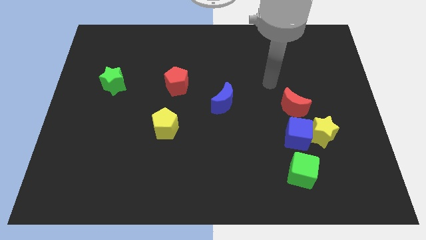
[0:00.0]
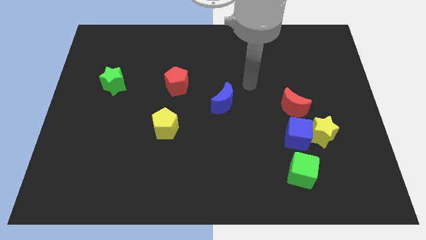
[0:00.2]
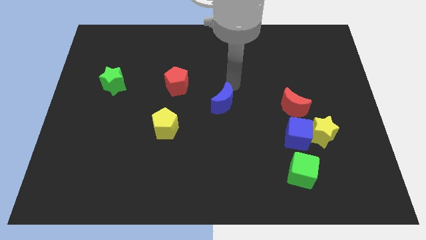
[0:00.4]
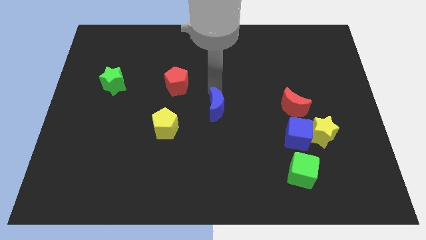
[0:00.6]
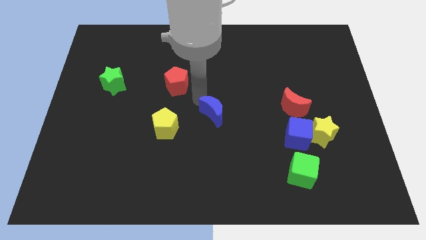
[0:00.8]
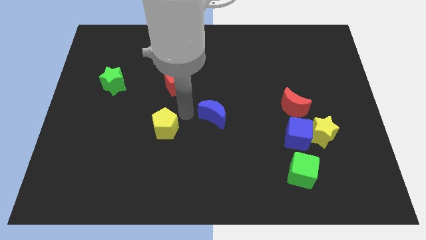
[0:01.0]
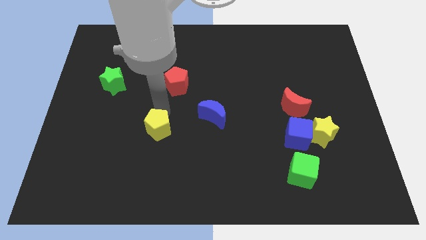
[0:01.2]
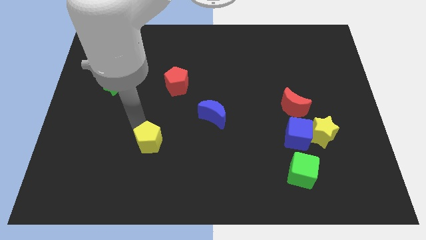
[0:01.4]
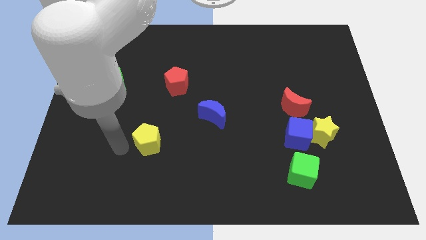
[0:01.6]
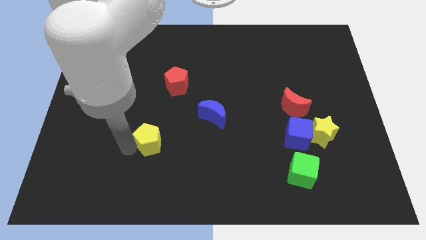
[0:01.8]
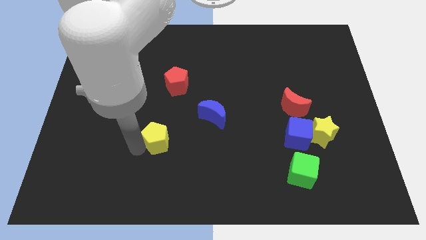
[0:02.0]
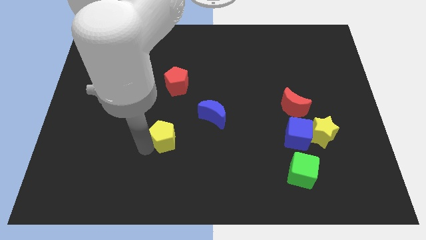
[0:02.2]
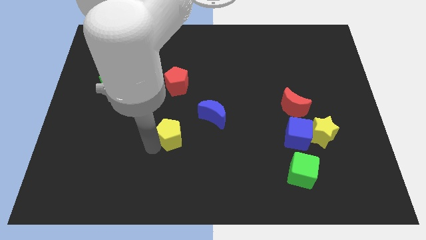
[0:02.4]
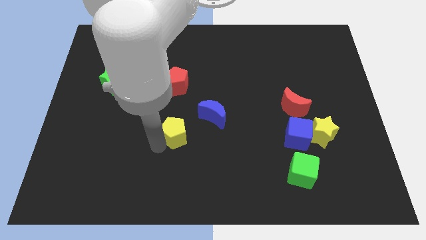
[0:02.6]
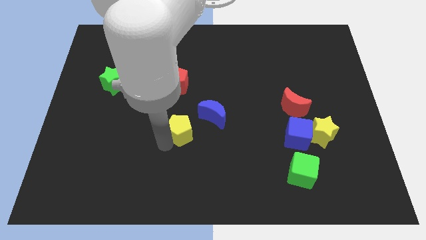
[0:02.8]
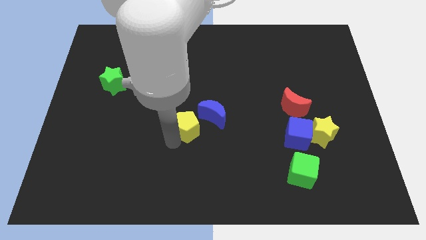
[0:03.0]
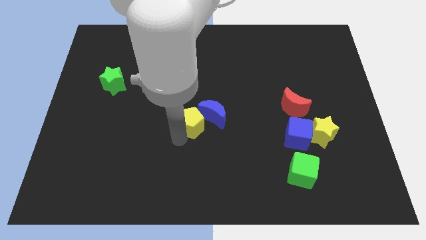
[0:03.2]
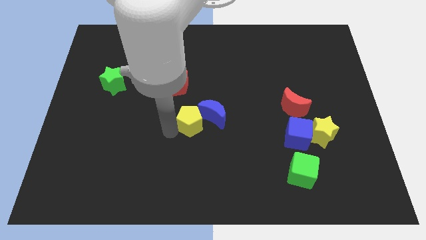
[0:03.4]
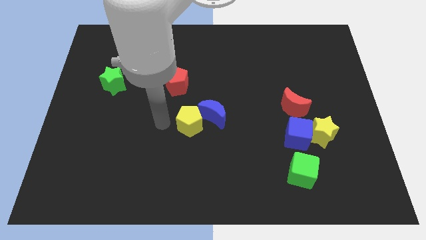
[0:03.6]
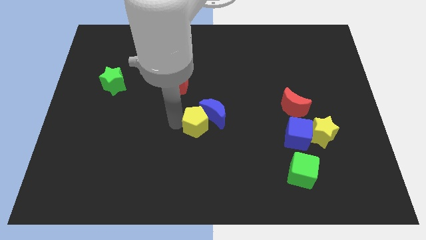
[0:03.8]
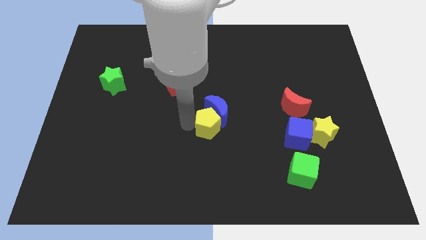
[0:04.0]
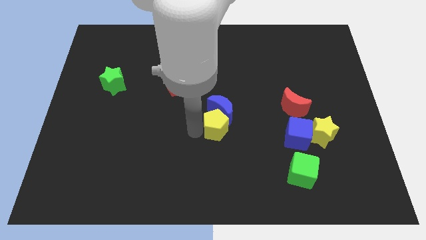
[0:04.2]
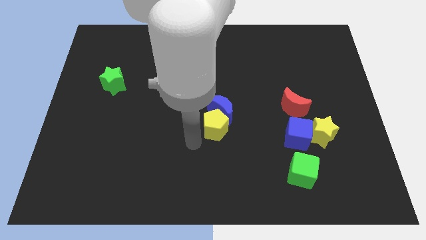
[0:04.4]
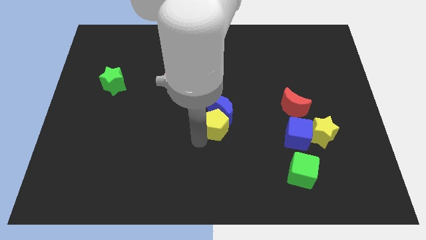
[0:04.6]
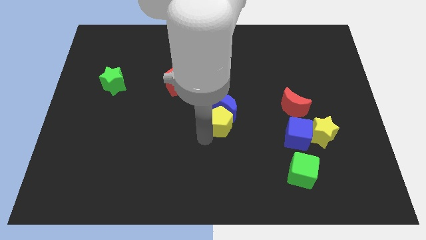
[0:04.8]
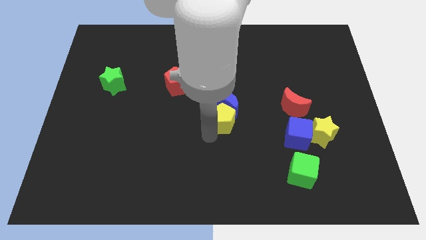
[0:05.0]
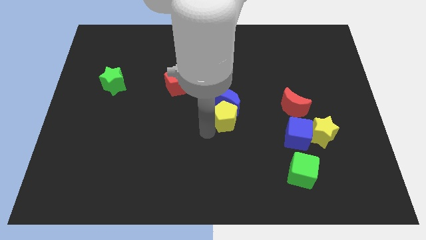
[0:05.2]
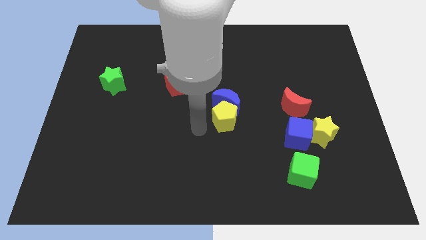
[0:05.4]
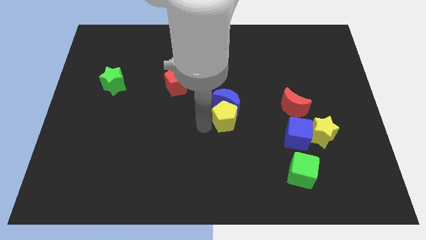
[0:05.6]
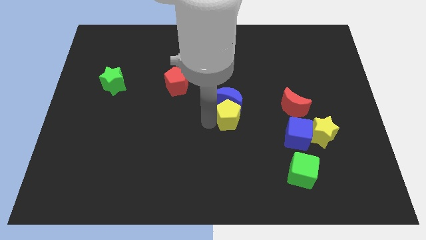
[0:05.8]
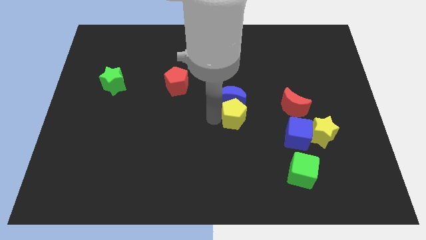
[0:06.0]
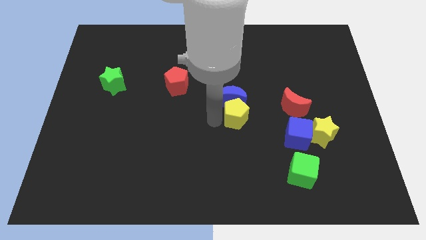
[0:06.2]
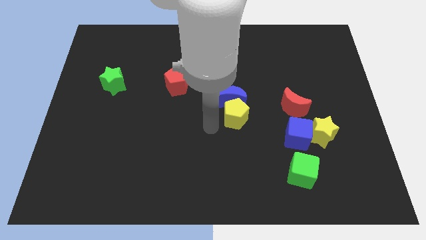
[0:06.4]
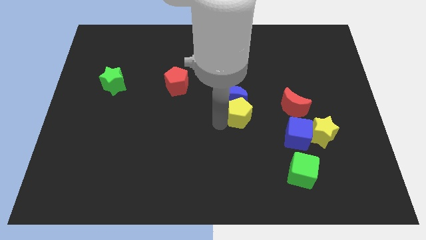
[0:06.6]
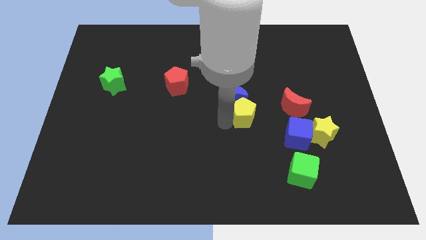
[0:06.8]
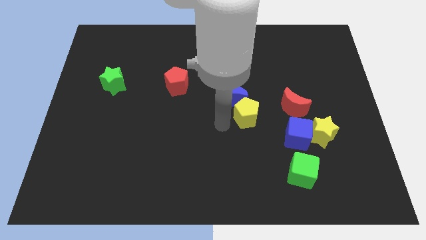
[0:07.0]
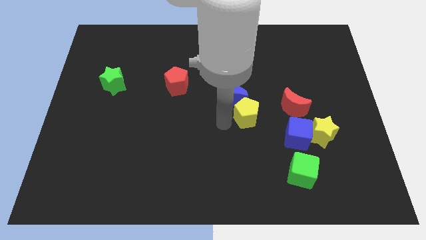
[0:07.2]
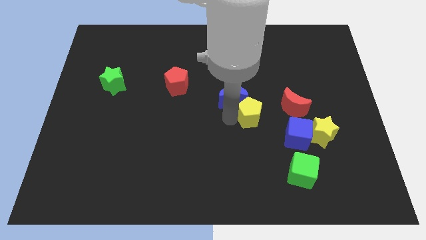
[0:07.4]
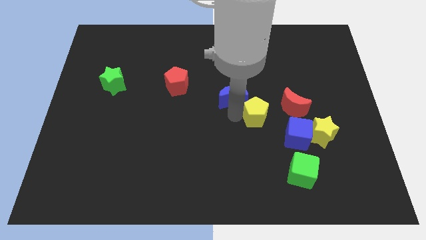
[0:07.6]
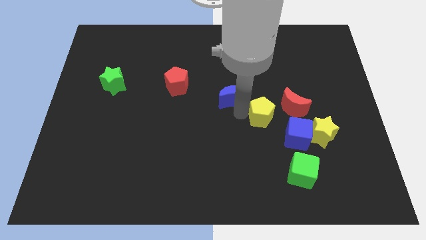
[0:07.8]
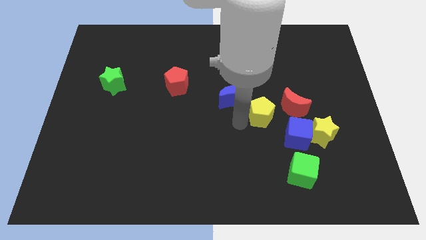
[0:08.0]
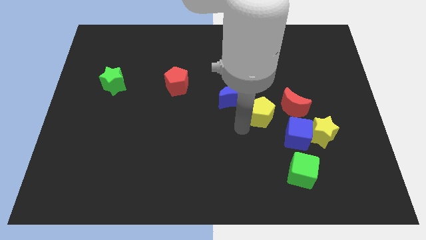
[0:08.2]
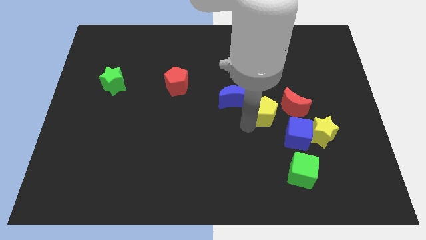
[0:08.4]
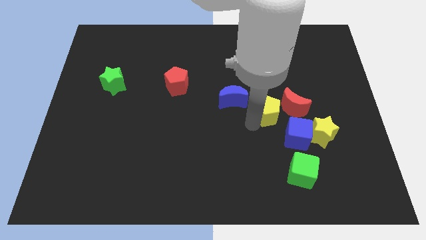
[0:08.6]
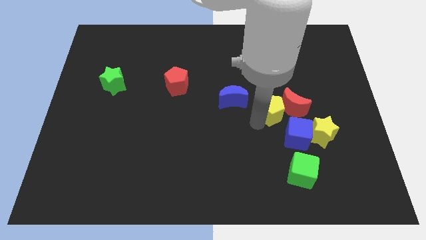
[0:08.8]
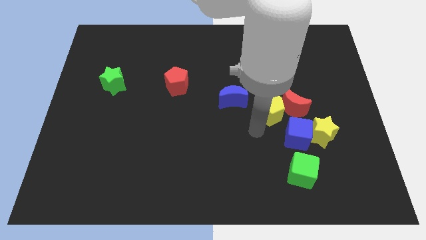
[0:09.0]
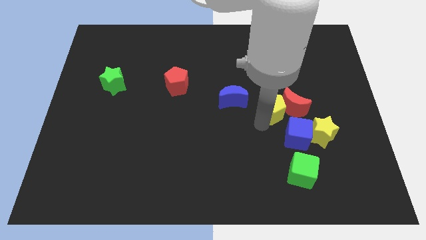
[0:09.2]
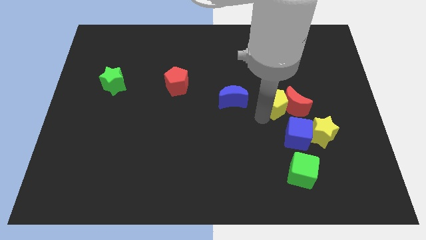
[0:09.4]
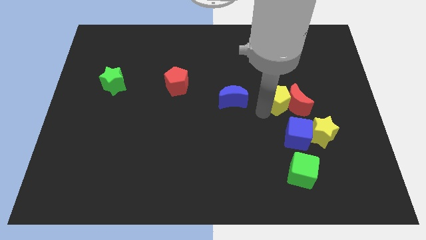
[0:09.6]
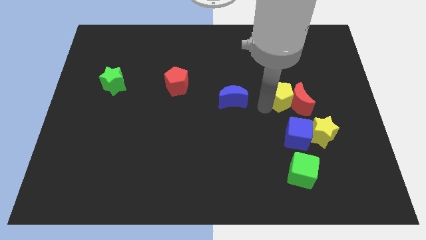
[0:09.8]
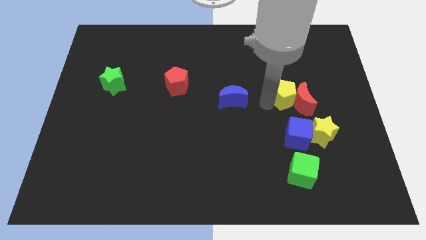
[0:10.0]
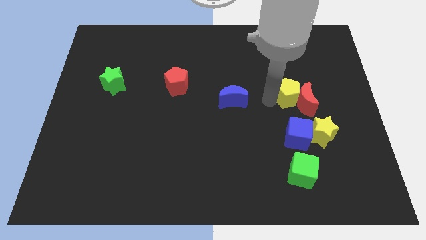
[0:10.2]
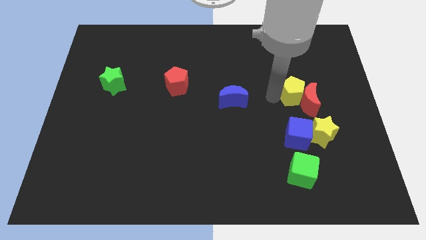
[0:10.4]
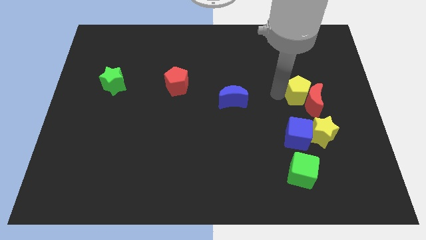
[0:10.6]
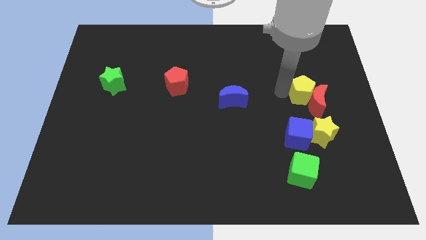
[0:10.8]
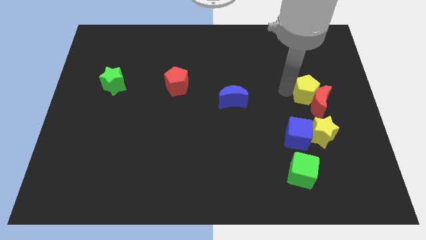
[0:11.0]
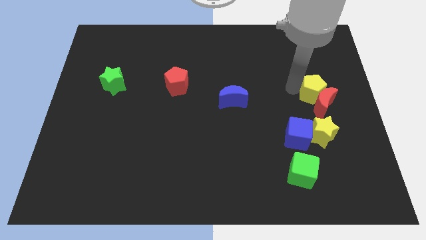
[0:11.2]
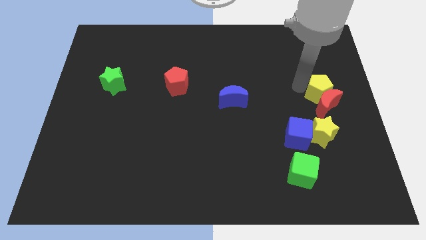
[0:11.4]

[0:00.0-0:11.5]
move the yellow pentagon to the right side of the board

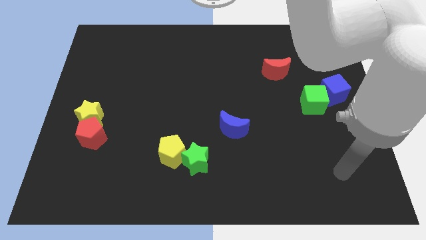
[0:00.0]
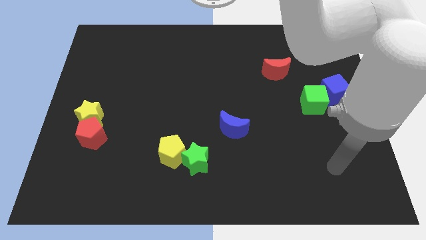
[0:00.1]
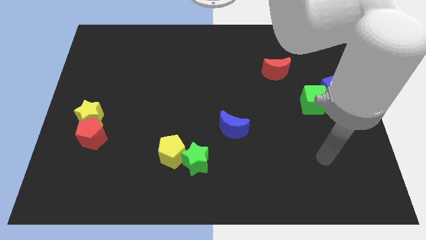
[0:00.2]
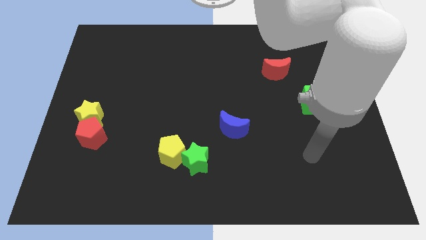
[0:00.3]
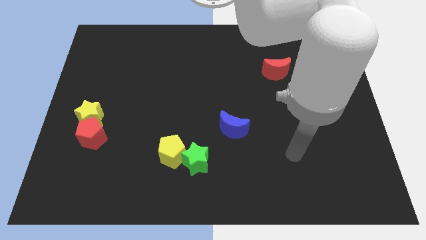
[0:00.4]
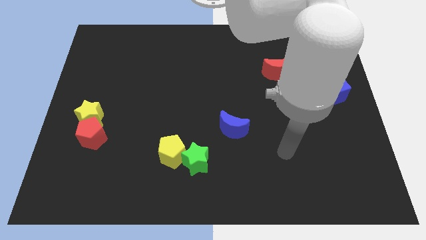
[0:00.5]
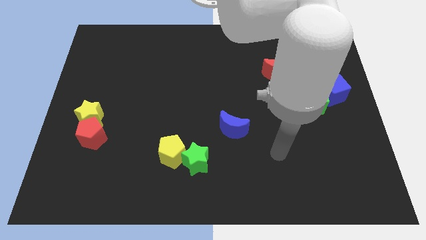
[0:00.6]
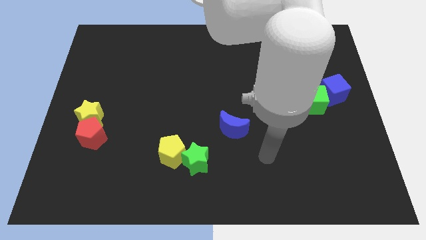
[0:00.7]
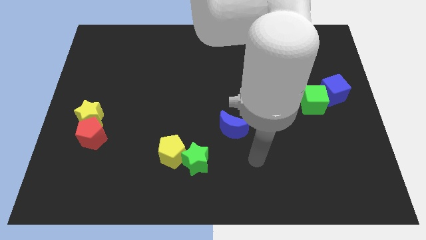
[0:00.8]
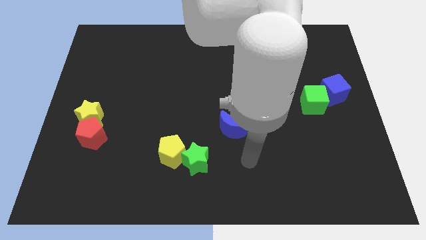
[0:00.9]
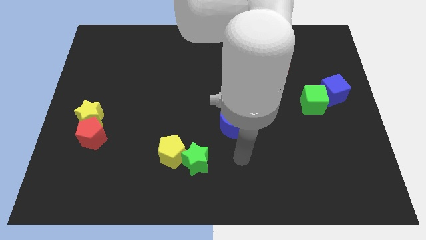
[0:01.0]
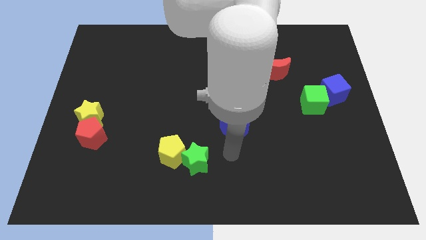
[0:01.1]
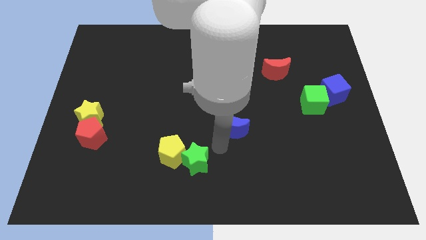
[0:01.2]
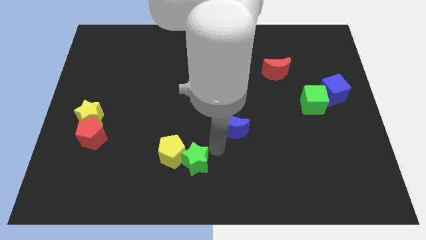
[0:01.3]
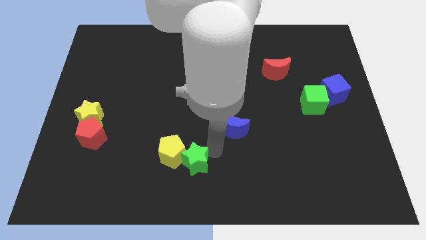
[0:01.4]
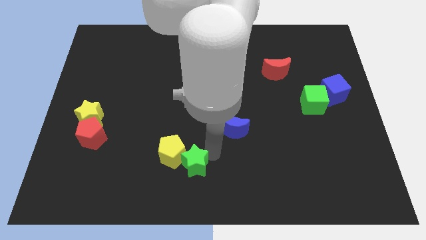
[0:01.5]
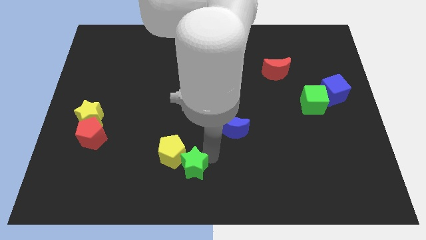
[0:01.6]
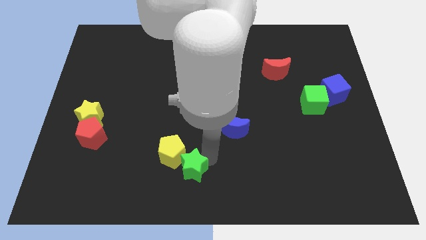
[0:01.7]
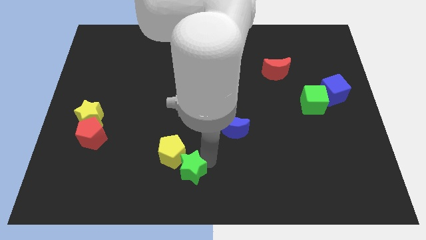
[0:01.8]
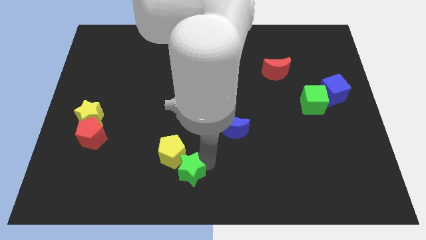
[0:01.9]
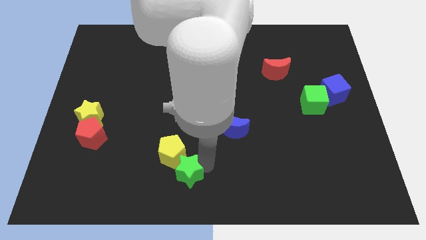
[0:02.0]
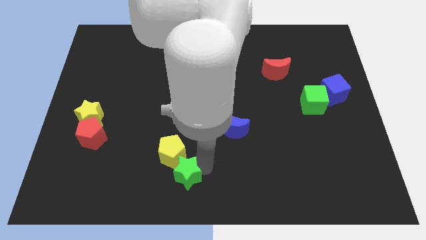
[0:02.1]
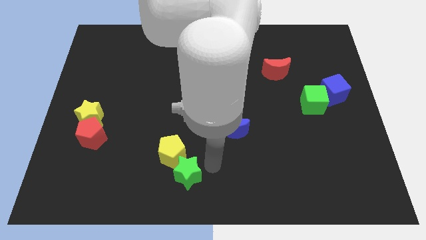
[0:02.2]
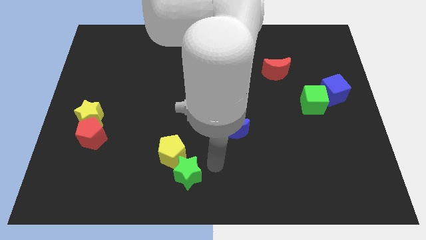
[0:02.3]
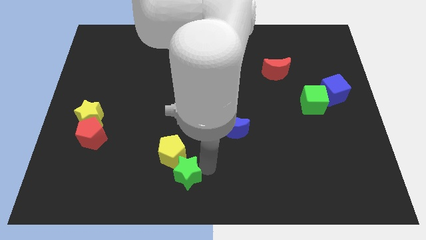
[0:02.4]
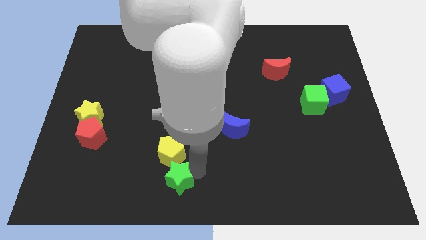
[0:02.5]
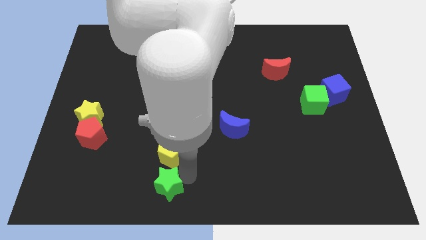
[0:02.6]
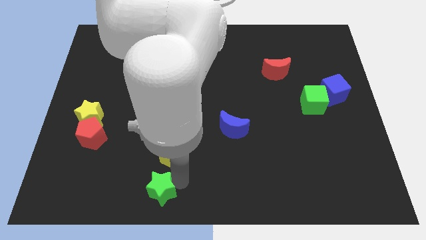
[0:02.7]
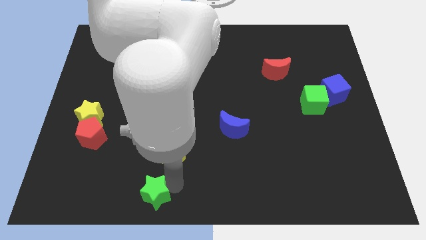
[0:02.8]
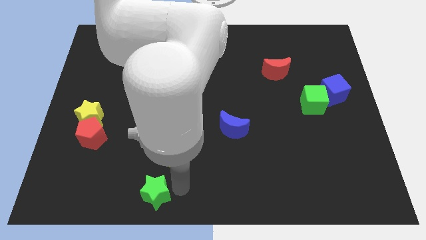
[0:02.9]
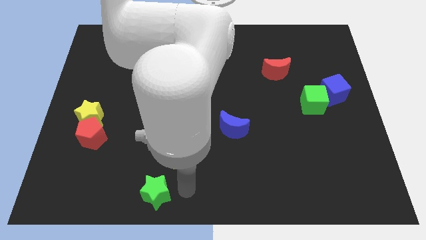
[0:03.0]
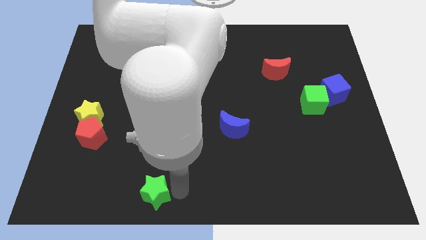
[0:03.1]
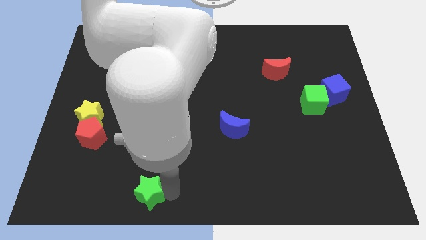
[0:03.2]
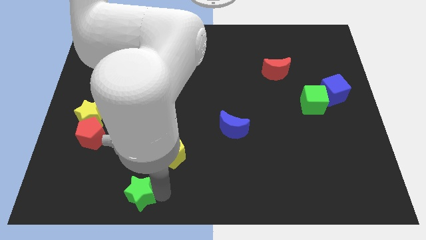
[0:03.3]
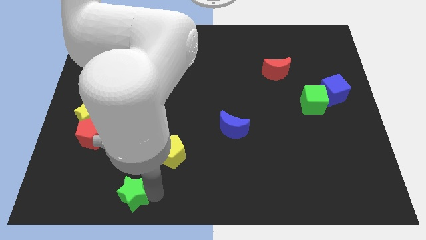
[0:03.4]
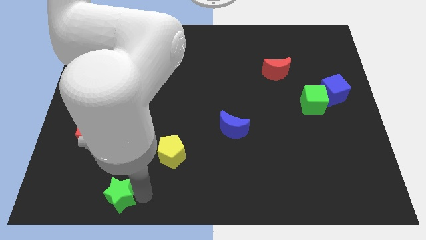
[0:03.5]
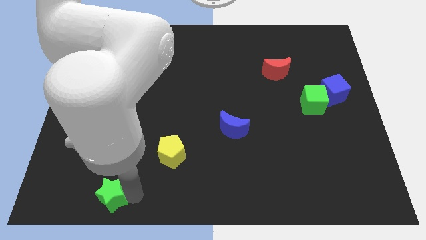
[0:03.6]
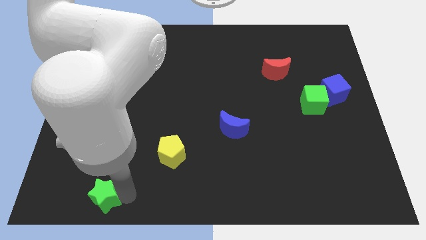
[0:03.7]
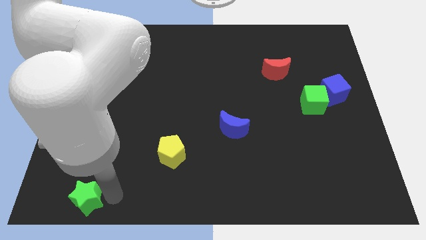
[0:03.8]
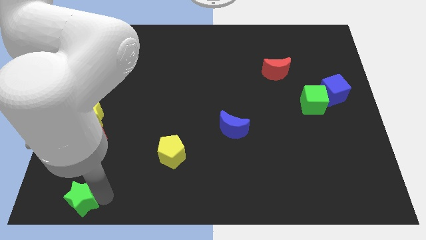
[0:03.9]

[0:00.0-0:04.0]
slide the green star to the bottom left of the board
